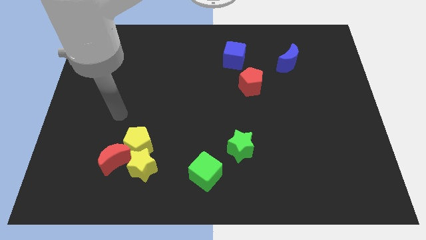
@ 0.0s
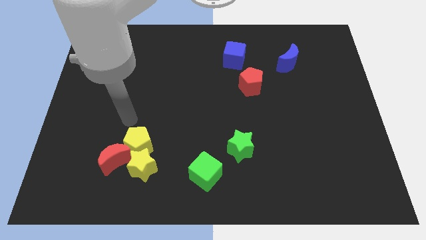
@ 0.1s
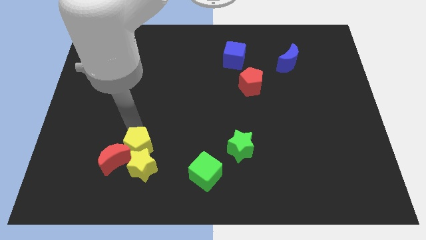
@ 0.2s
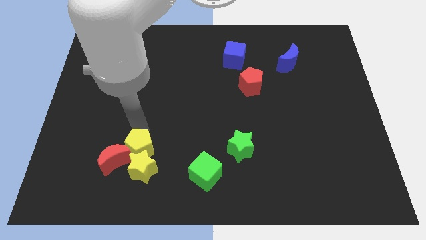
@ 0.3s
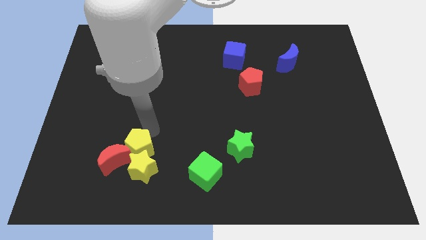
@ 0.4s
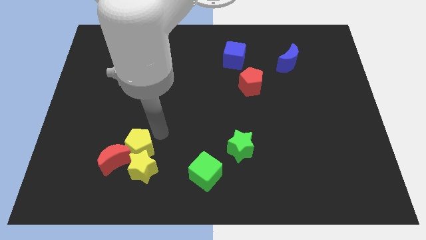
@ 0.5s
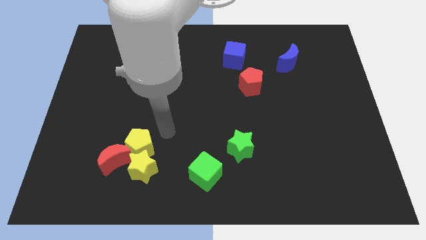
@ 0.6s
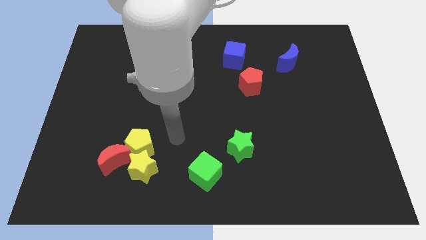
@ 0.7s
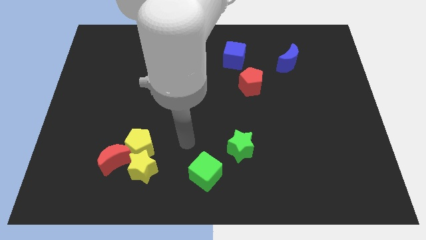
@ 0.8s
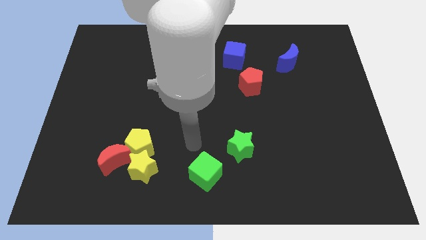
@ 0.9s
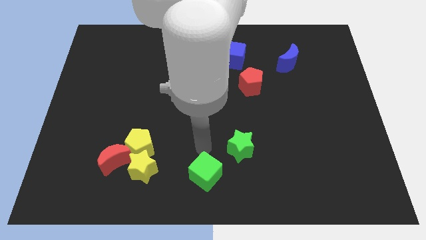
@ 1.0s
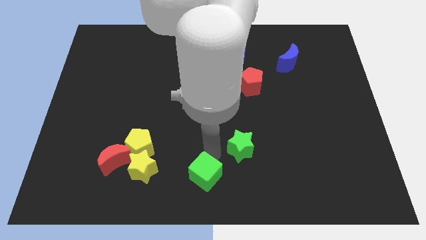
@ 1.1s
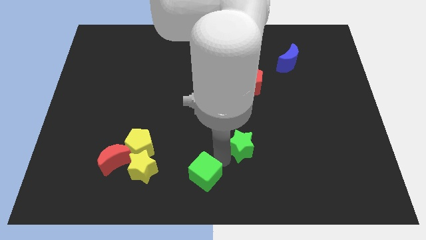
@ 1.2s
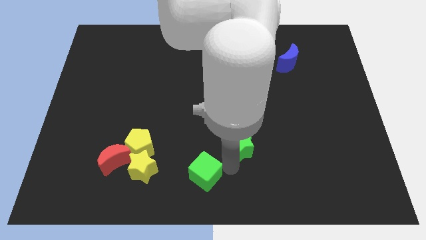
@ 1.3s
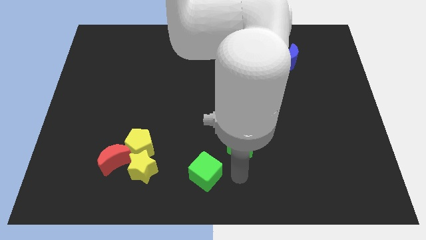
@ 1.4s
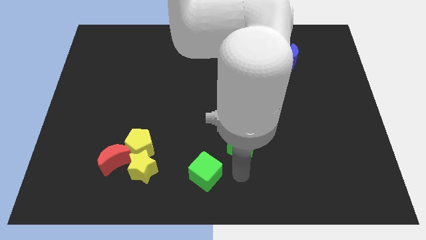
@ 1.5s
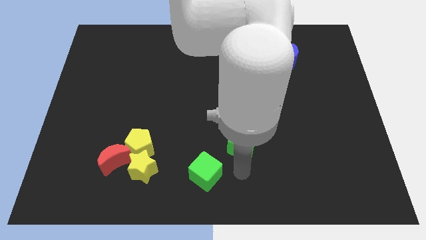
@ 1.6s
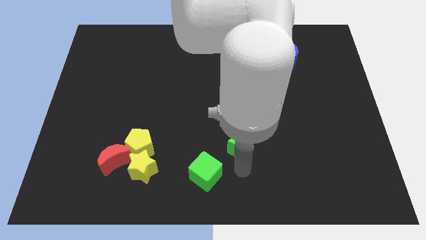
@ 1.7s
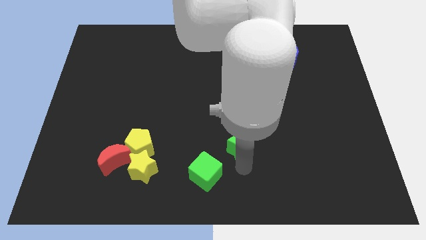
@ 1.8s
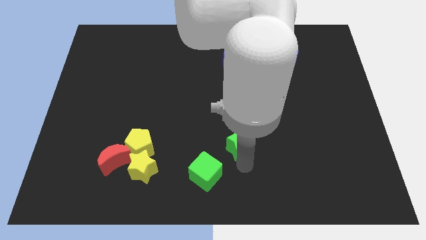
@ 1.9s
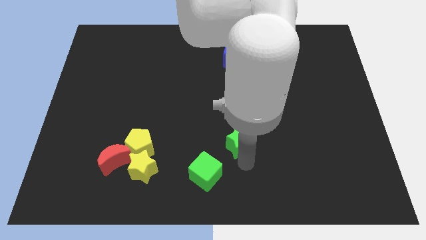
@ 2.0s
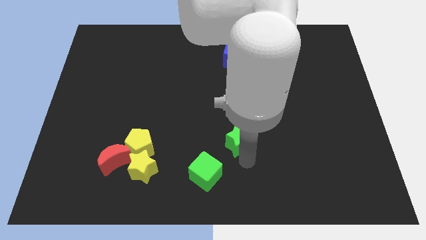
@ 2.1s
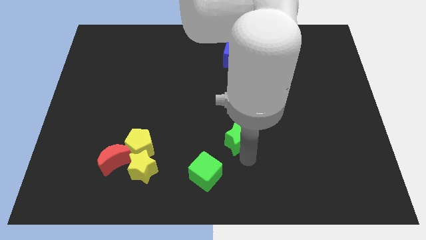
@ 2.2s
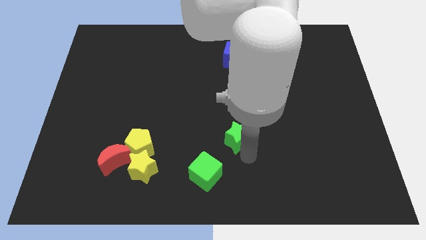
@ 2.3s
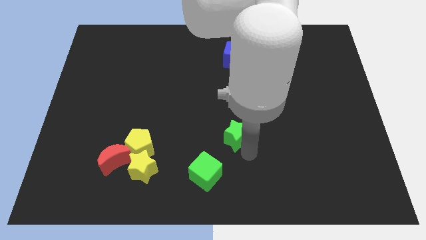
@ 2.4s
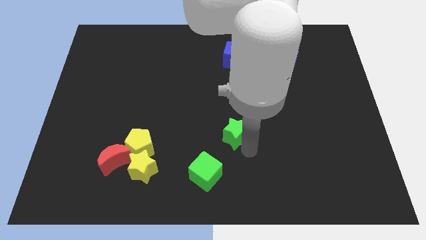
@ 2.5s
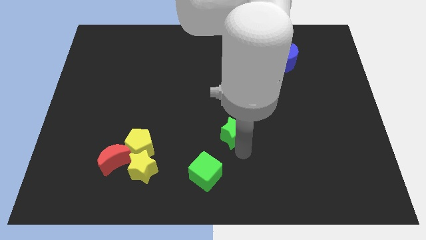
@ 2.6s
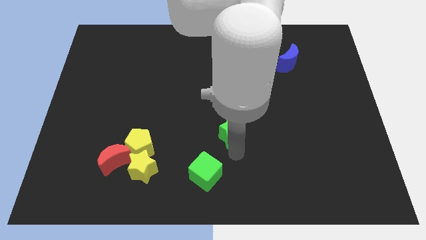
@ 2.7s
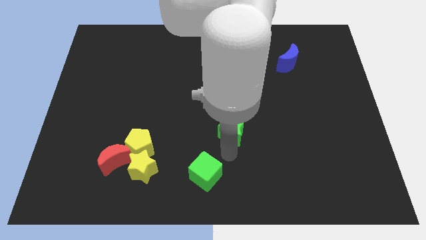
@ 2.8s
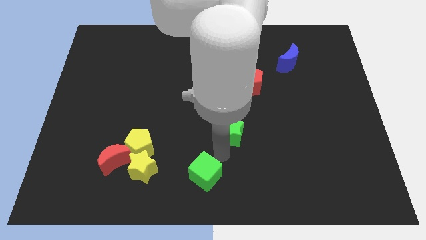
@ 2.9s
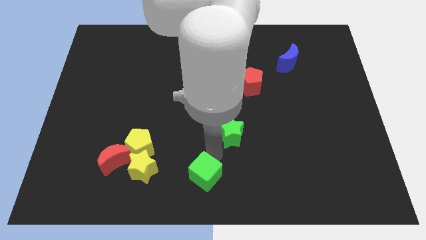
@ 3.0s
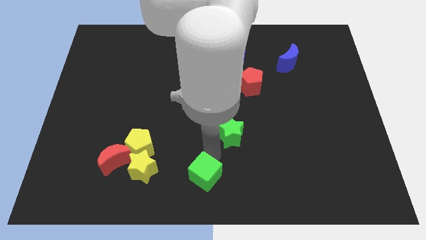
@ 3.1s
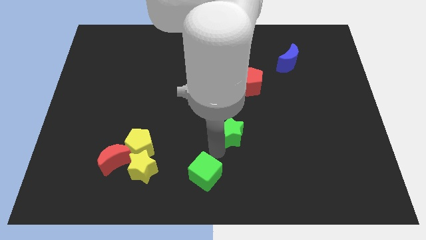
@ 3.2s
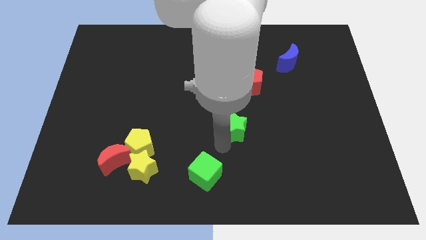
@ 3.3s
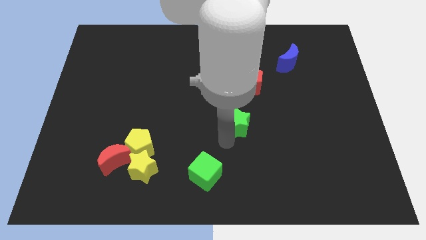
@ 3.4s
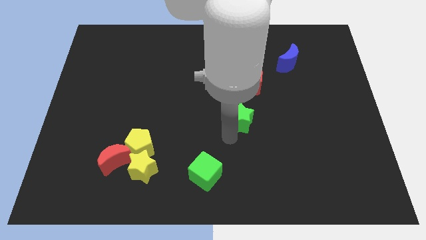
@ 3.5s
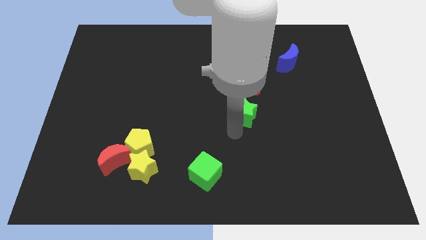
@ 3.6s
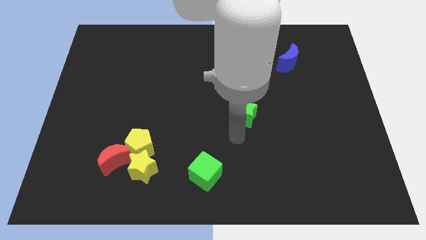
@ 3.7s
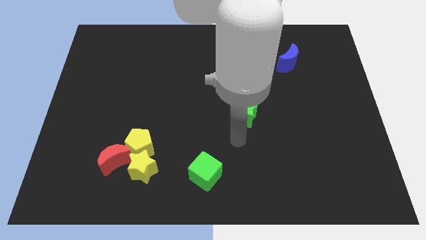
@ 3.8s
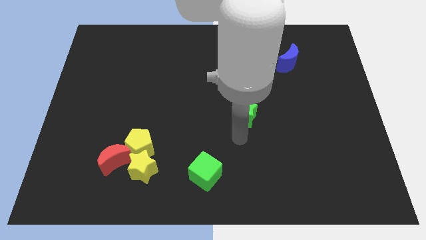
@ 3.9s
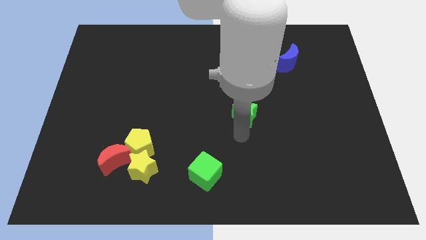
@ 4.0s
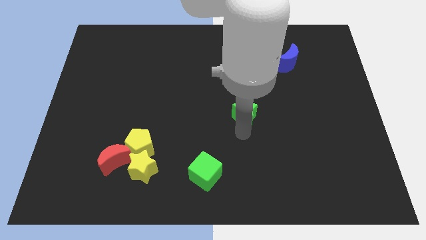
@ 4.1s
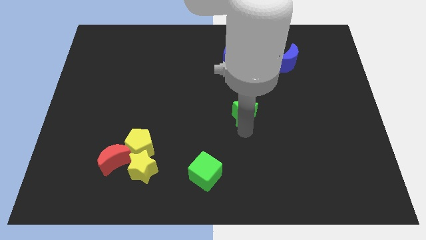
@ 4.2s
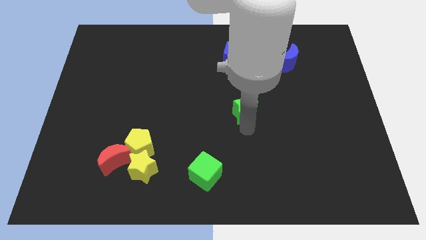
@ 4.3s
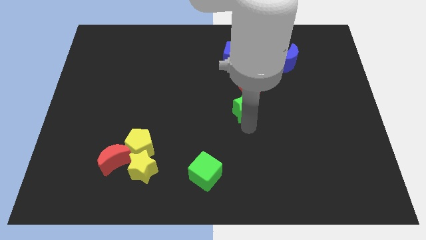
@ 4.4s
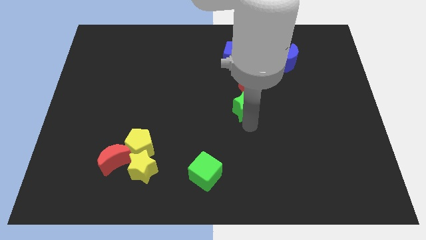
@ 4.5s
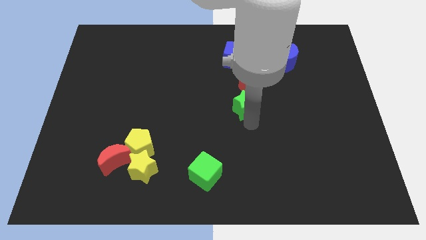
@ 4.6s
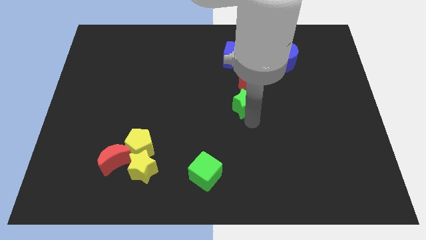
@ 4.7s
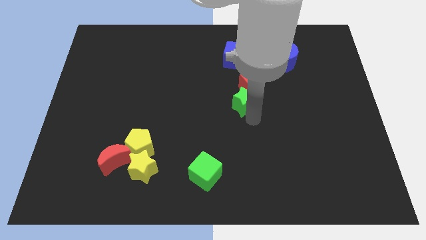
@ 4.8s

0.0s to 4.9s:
slide the green star close to the red pentagon

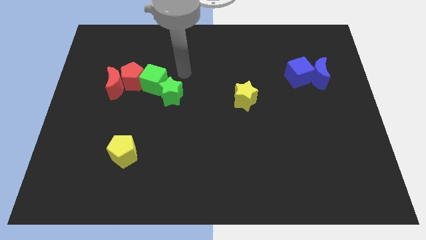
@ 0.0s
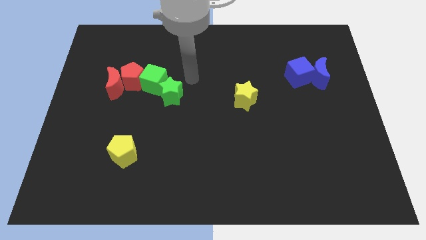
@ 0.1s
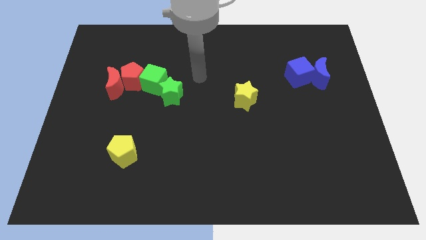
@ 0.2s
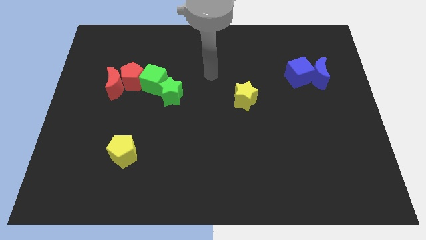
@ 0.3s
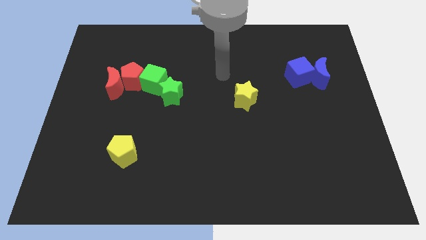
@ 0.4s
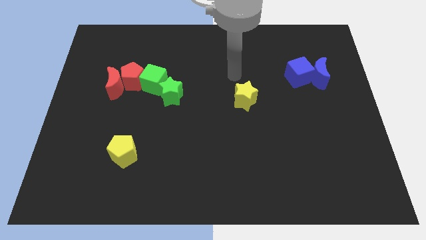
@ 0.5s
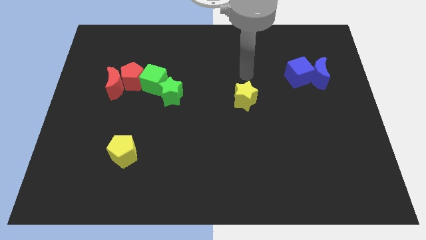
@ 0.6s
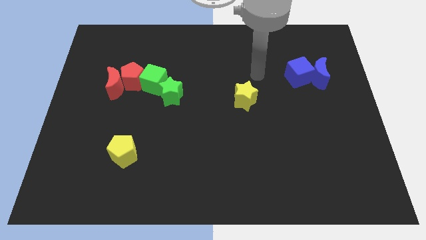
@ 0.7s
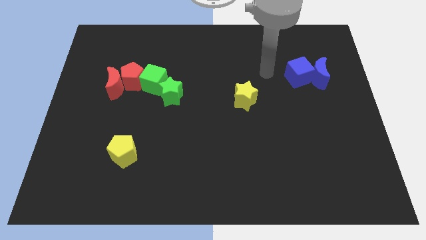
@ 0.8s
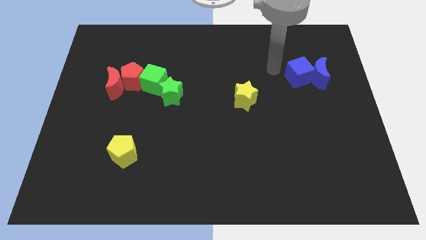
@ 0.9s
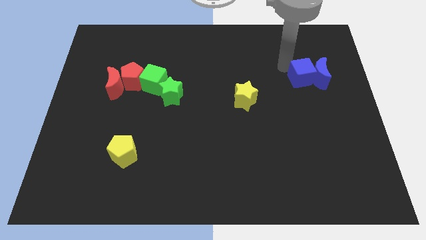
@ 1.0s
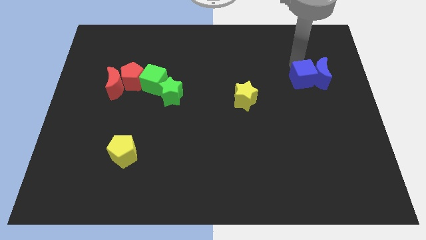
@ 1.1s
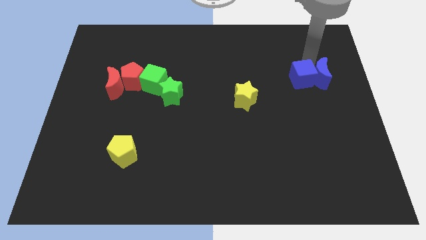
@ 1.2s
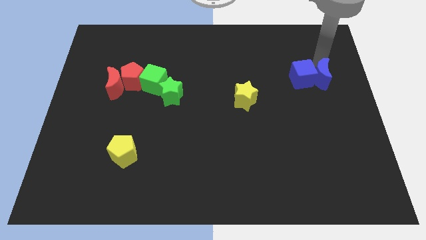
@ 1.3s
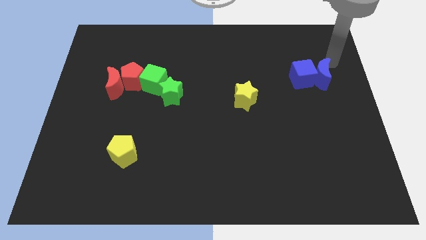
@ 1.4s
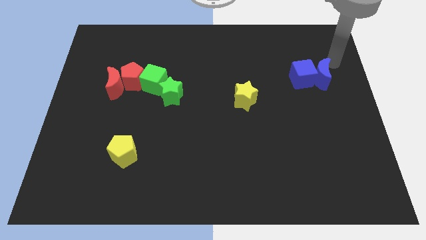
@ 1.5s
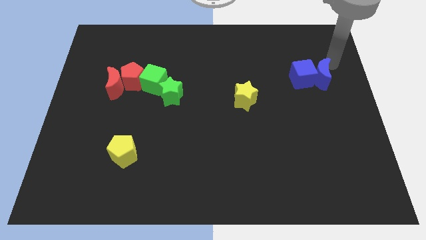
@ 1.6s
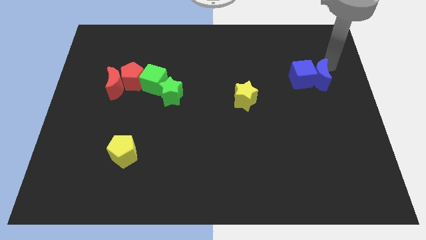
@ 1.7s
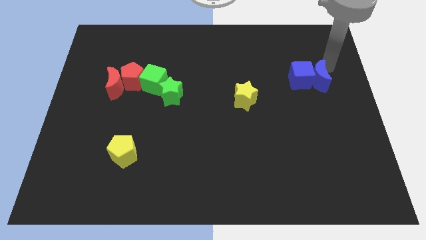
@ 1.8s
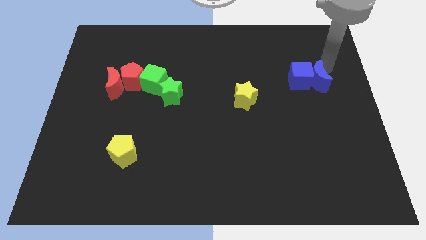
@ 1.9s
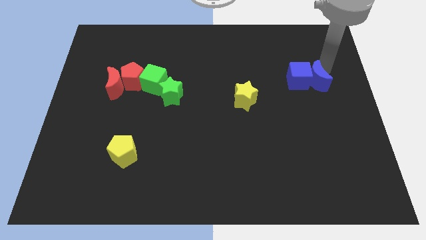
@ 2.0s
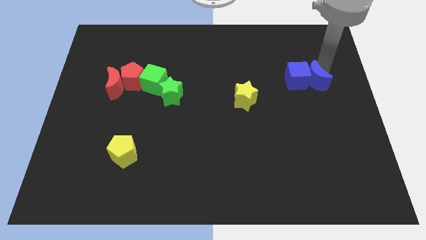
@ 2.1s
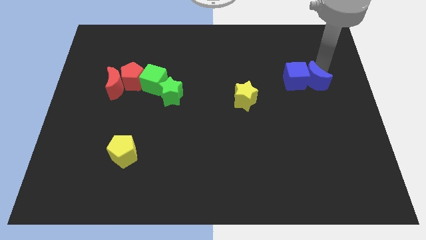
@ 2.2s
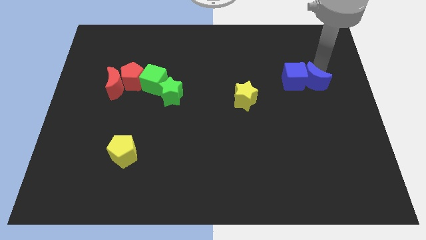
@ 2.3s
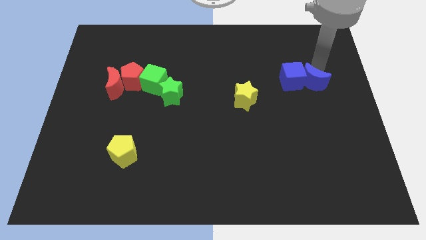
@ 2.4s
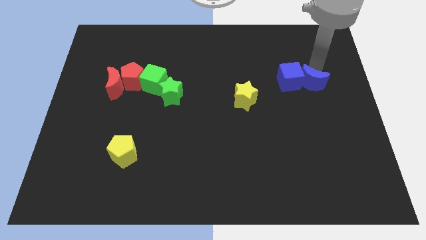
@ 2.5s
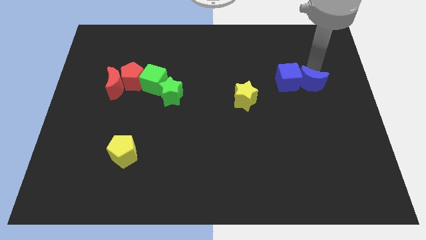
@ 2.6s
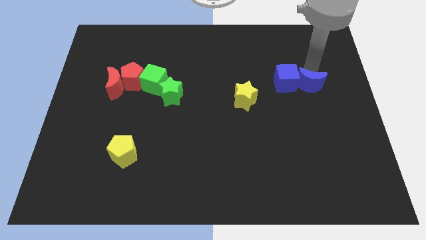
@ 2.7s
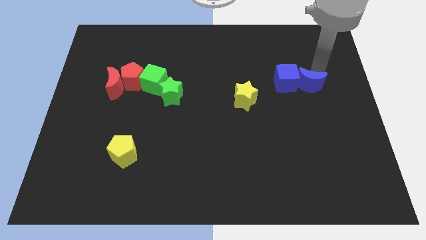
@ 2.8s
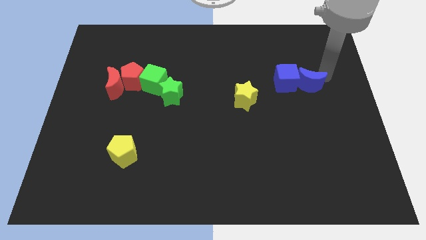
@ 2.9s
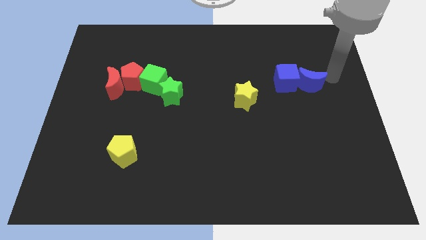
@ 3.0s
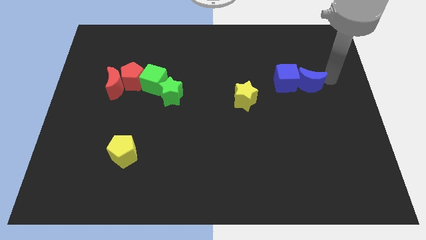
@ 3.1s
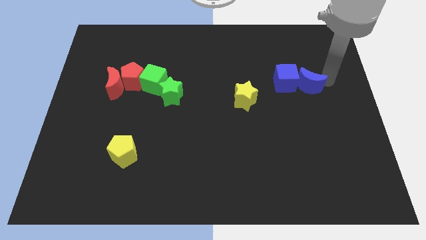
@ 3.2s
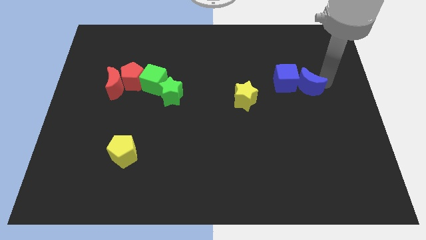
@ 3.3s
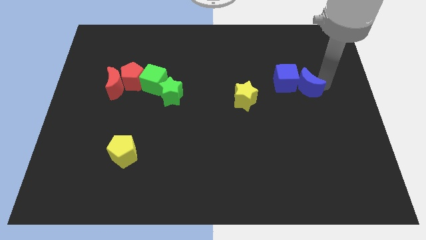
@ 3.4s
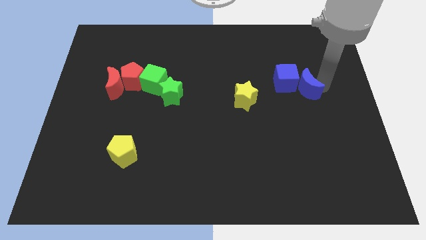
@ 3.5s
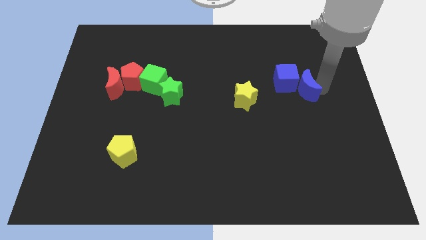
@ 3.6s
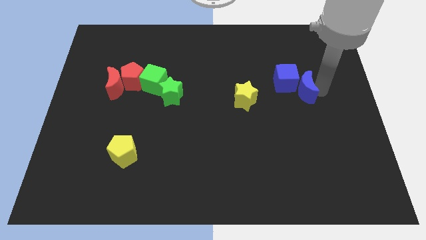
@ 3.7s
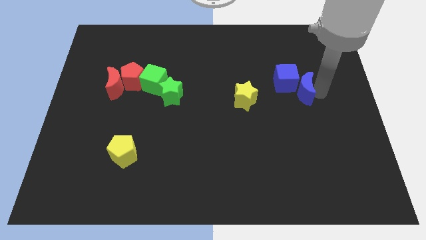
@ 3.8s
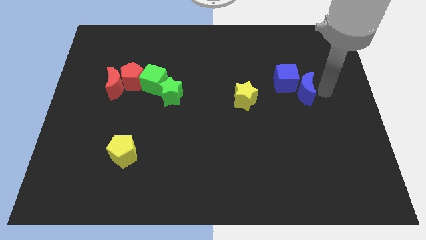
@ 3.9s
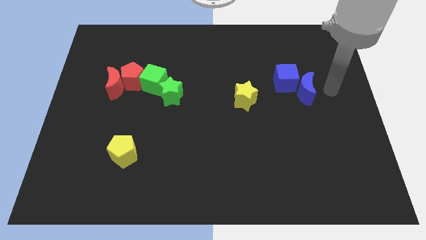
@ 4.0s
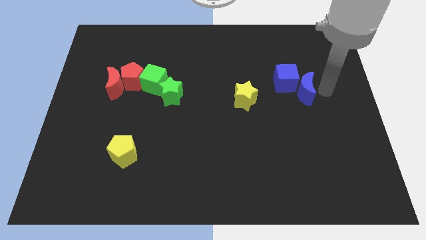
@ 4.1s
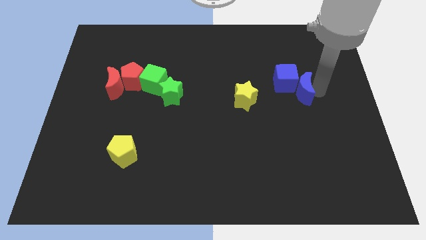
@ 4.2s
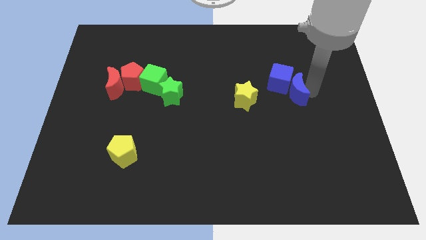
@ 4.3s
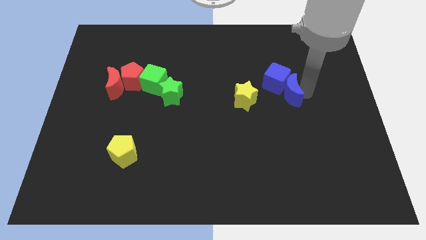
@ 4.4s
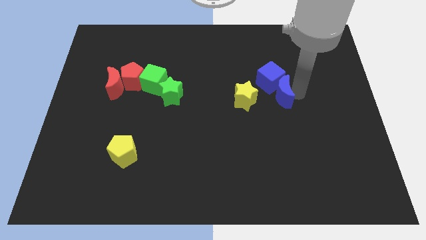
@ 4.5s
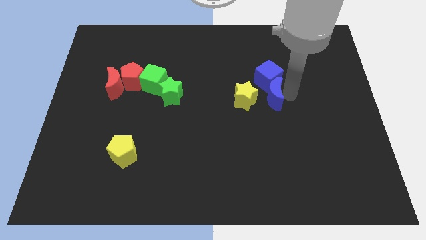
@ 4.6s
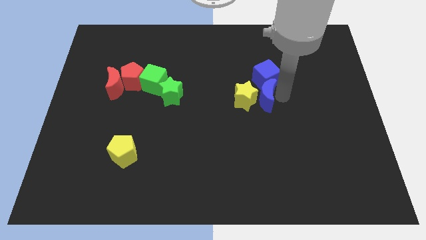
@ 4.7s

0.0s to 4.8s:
put the blue moon towards the yellow star
